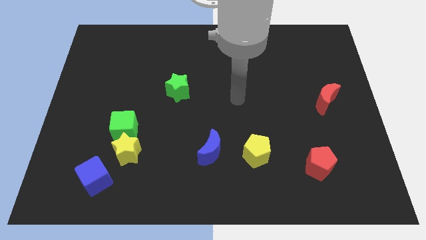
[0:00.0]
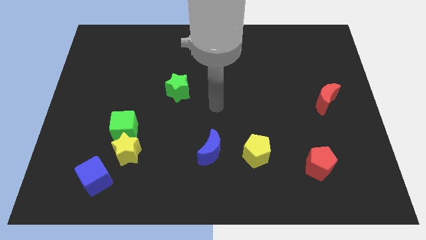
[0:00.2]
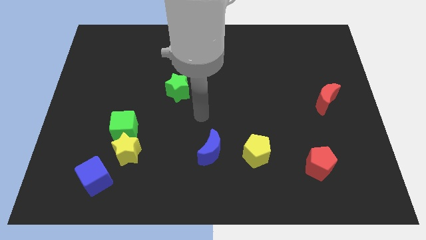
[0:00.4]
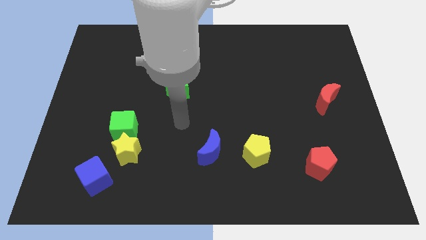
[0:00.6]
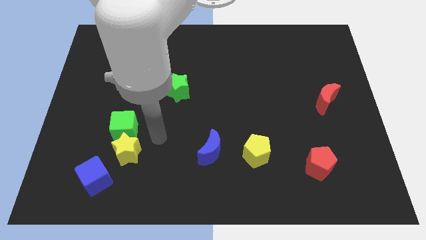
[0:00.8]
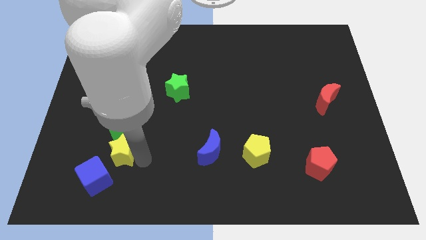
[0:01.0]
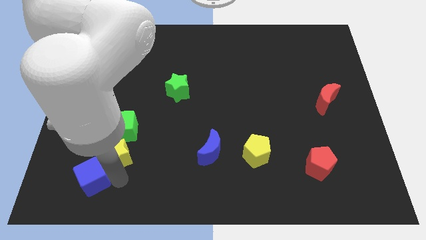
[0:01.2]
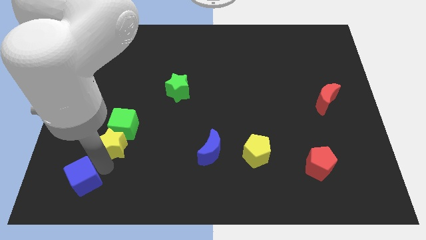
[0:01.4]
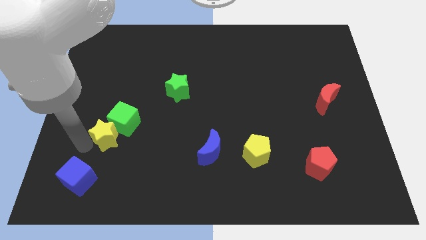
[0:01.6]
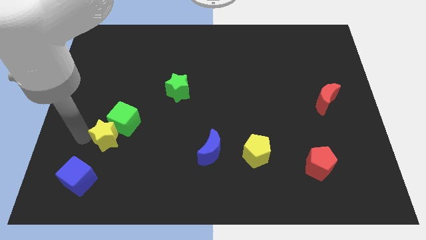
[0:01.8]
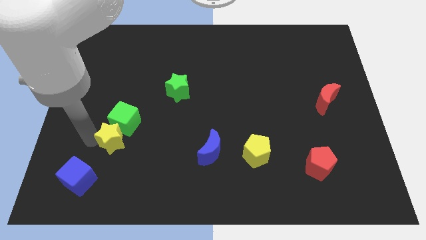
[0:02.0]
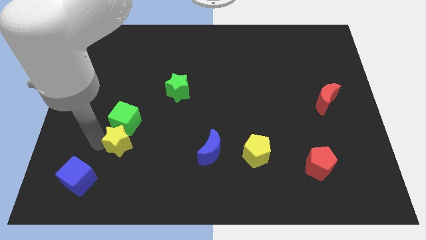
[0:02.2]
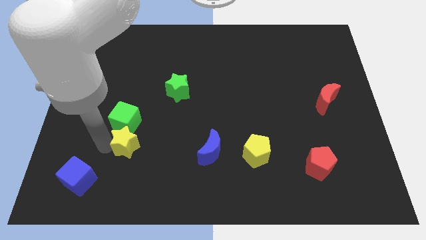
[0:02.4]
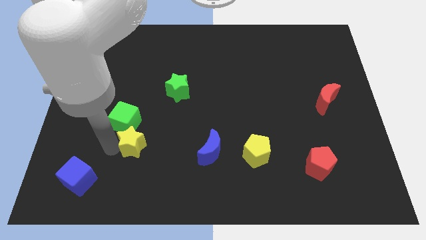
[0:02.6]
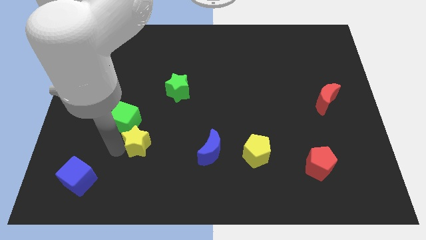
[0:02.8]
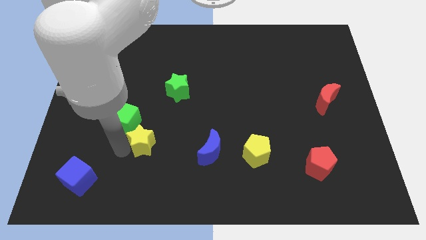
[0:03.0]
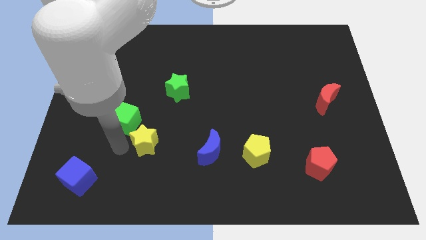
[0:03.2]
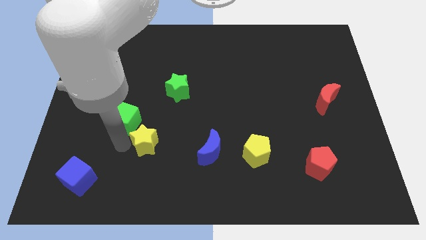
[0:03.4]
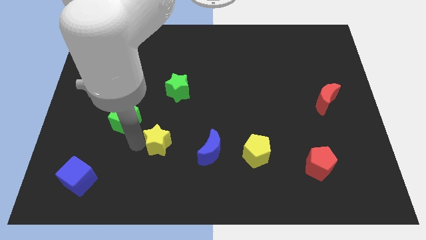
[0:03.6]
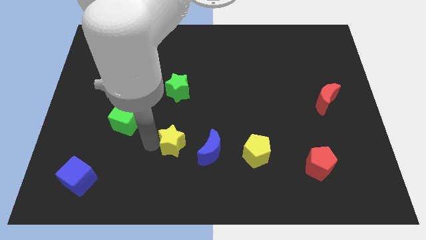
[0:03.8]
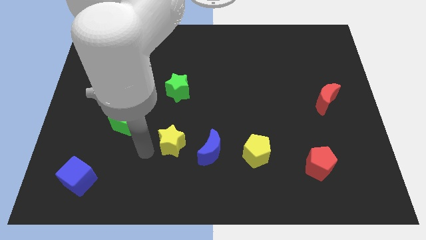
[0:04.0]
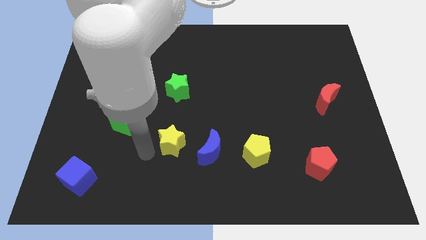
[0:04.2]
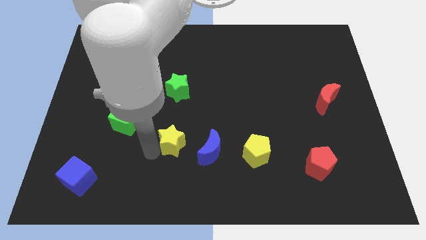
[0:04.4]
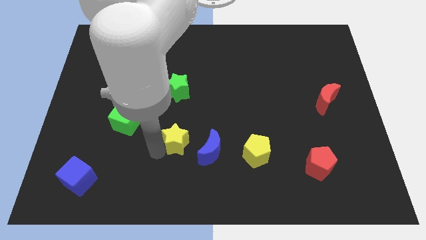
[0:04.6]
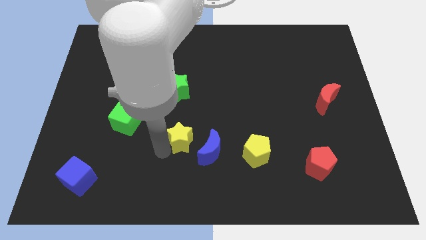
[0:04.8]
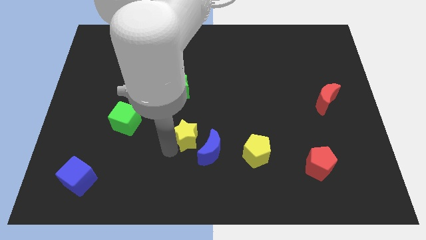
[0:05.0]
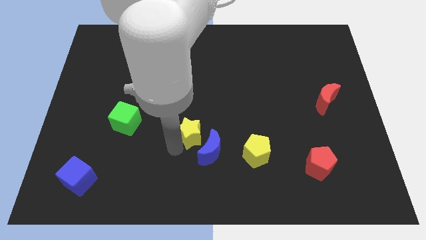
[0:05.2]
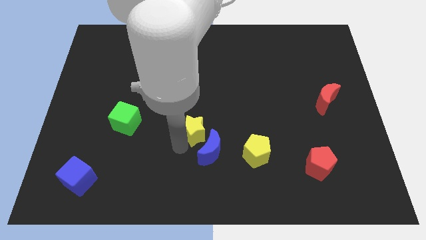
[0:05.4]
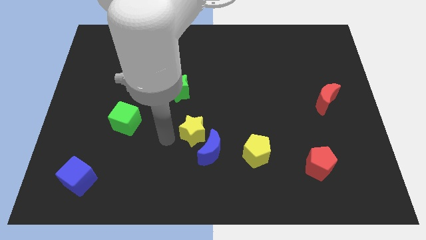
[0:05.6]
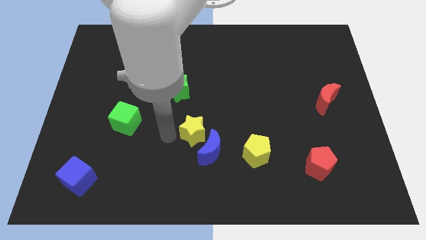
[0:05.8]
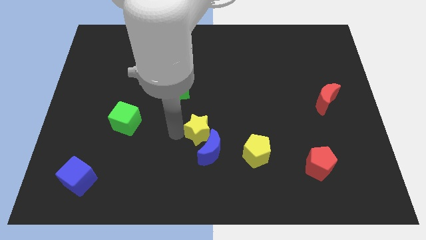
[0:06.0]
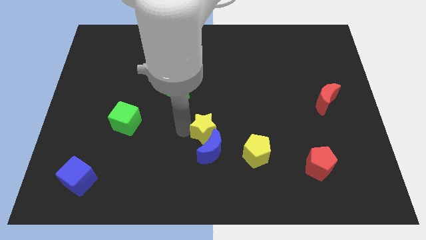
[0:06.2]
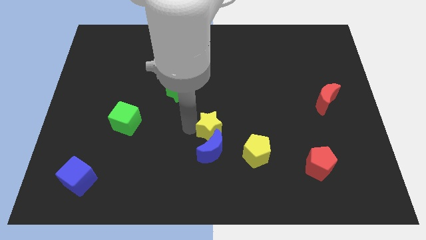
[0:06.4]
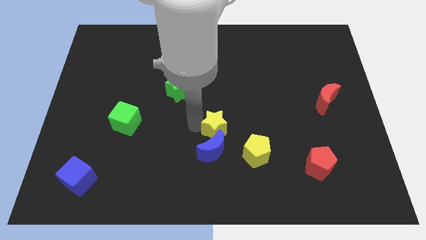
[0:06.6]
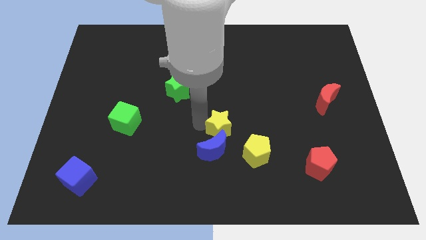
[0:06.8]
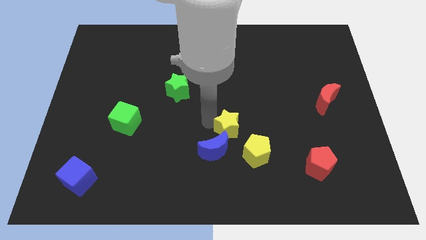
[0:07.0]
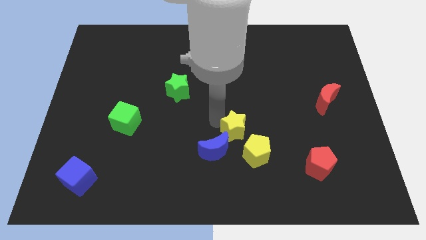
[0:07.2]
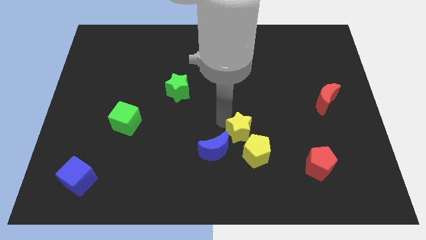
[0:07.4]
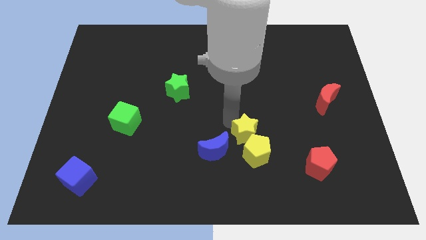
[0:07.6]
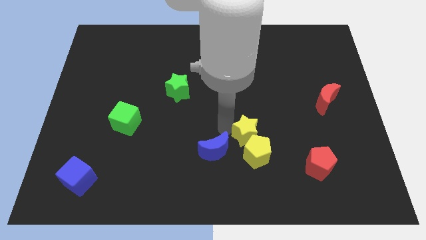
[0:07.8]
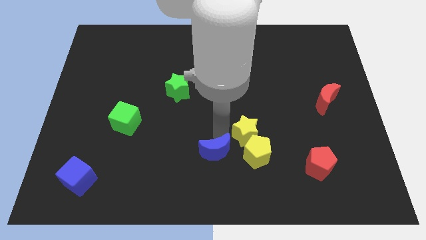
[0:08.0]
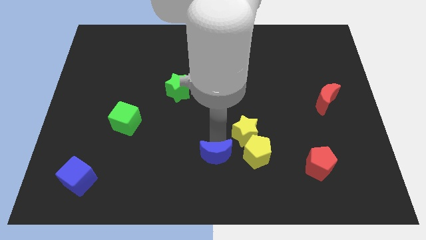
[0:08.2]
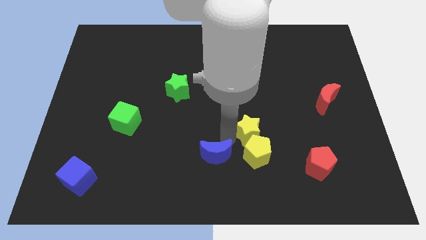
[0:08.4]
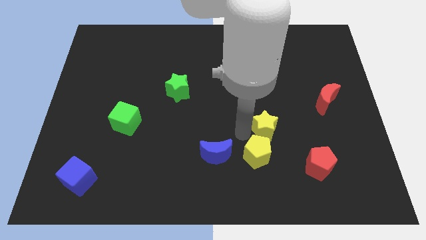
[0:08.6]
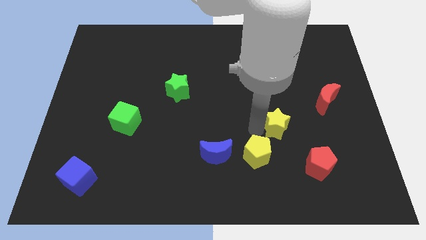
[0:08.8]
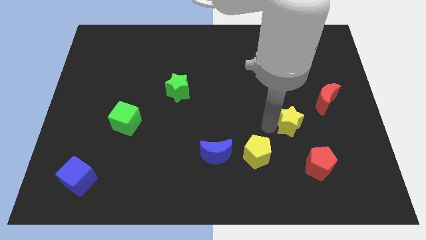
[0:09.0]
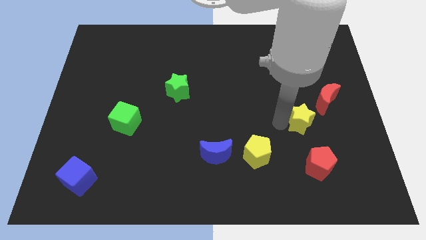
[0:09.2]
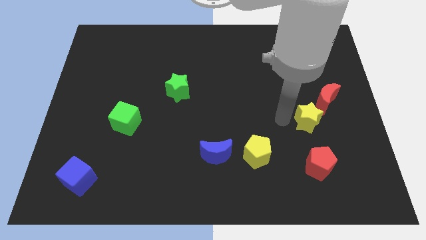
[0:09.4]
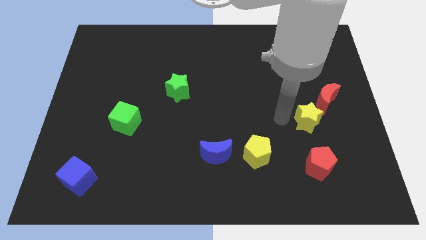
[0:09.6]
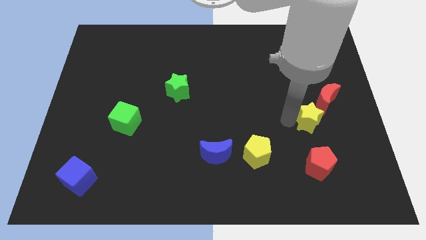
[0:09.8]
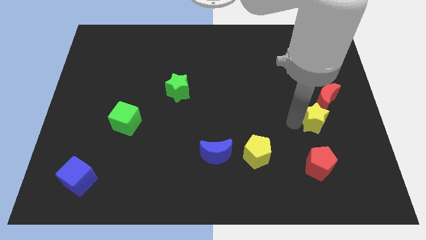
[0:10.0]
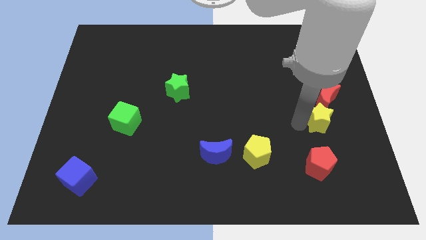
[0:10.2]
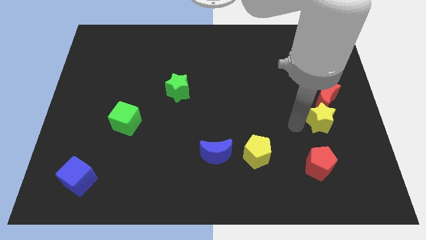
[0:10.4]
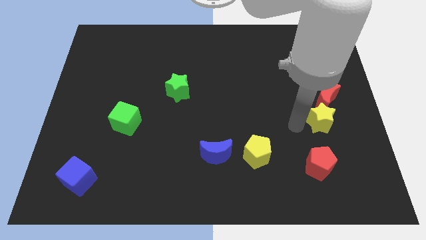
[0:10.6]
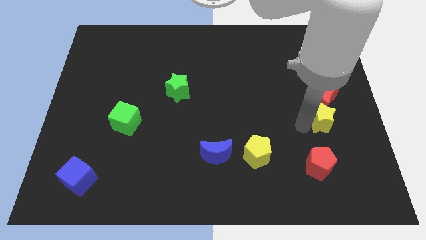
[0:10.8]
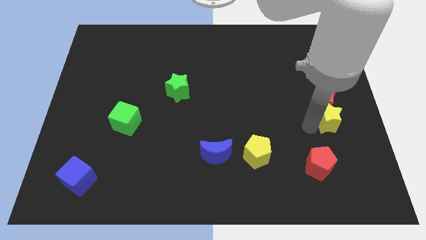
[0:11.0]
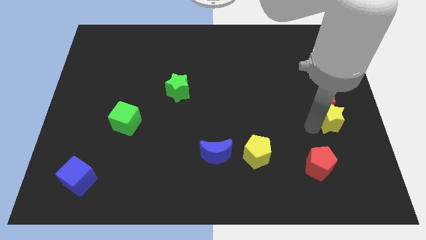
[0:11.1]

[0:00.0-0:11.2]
push the yellow star to the right side of the board

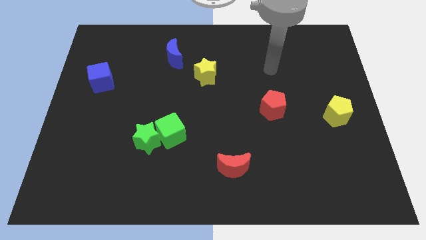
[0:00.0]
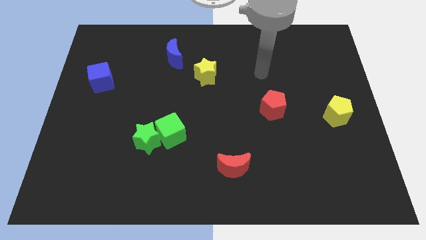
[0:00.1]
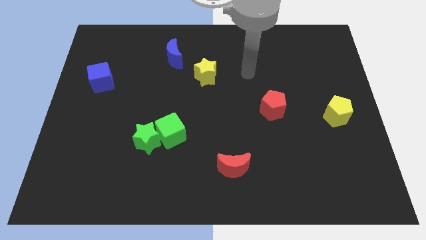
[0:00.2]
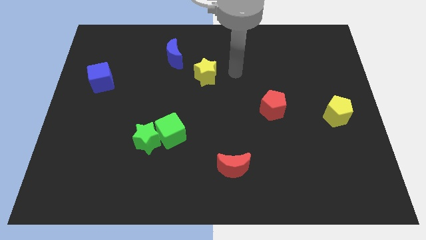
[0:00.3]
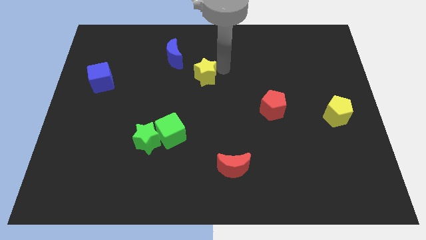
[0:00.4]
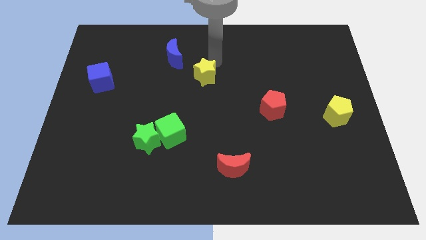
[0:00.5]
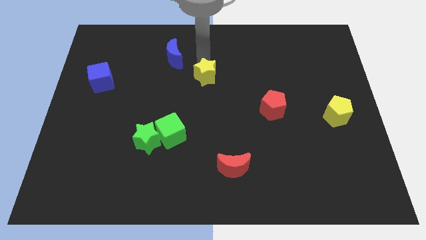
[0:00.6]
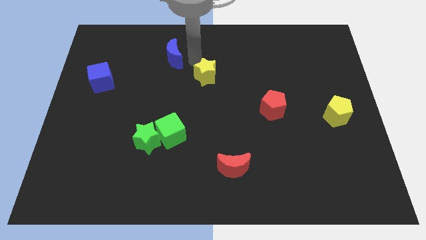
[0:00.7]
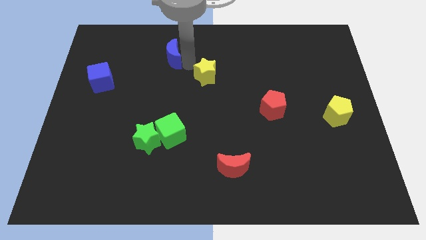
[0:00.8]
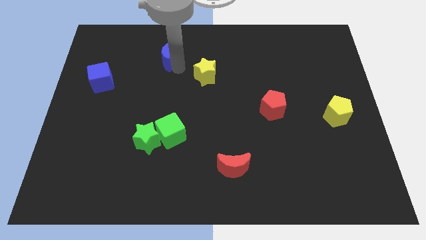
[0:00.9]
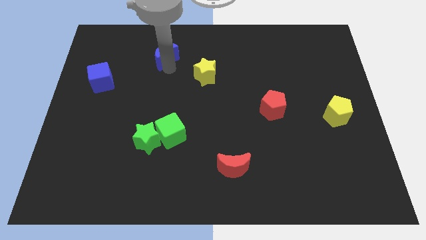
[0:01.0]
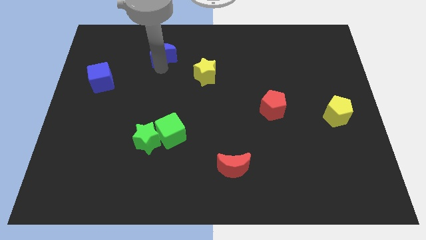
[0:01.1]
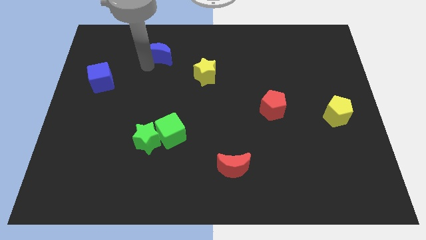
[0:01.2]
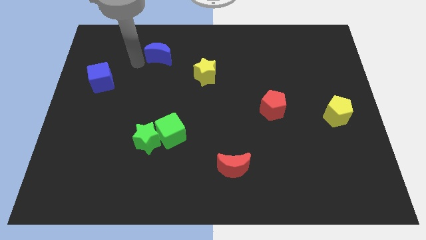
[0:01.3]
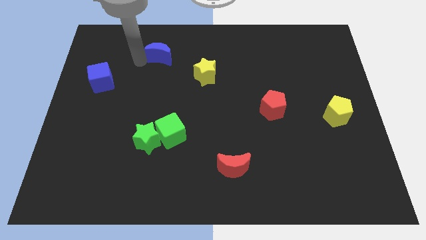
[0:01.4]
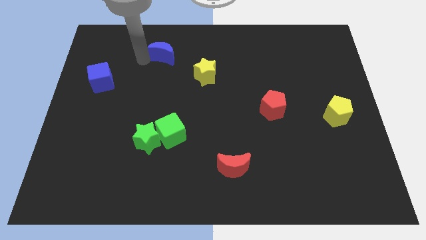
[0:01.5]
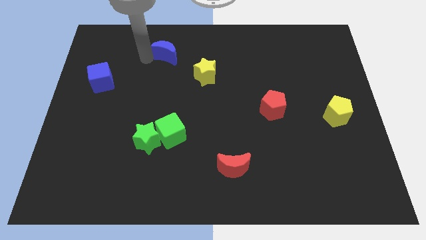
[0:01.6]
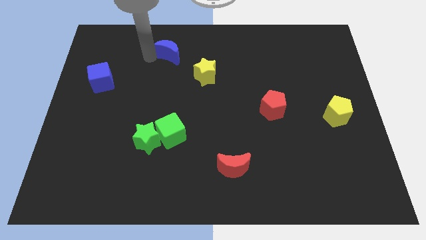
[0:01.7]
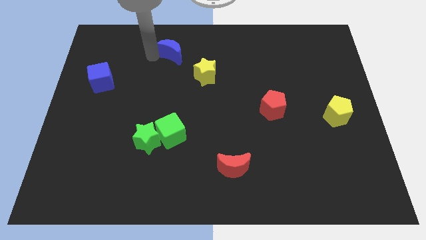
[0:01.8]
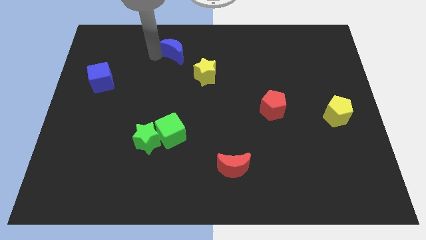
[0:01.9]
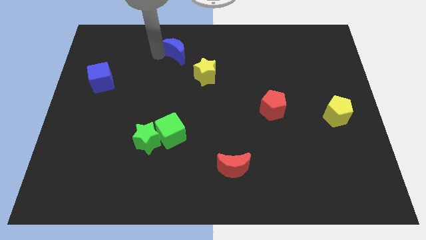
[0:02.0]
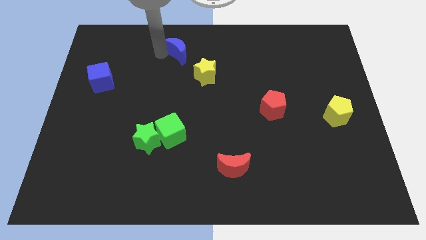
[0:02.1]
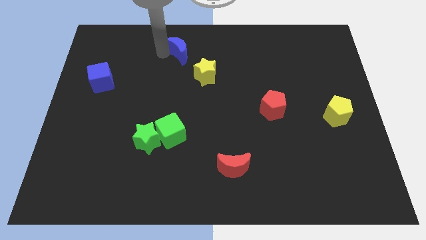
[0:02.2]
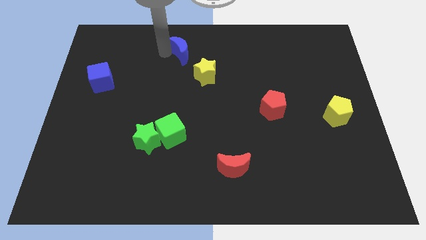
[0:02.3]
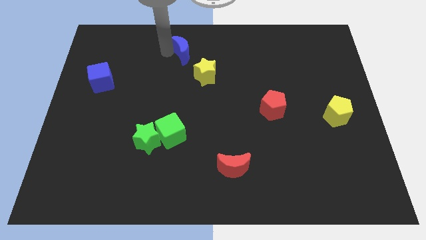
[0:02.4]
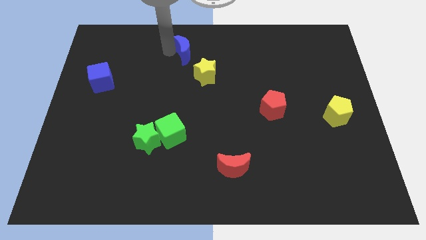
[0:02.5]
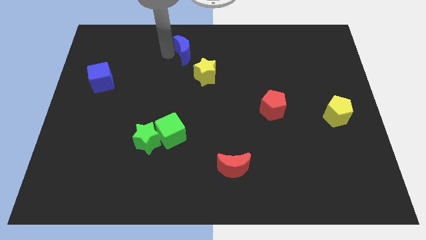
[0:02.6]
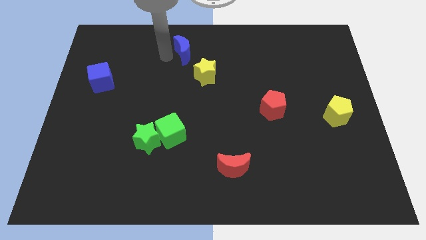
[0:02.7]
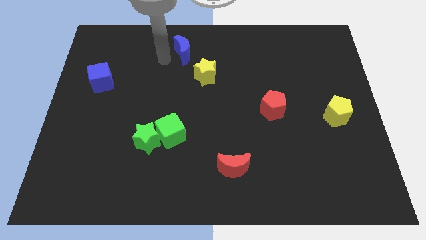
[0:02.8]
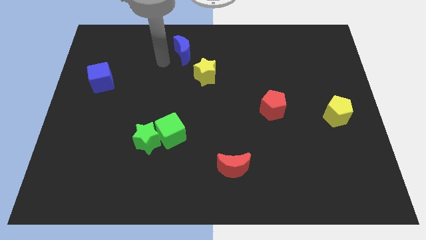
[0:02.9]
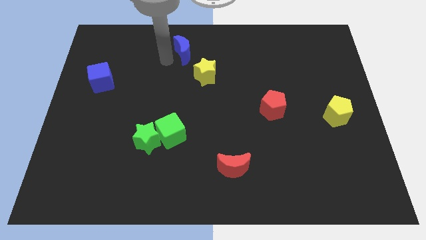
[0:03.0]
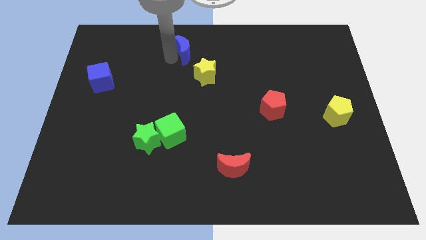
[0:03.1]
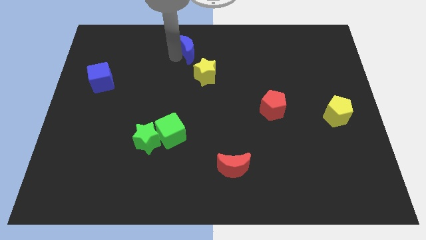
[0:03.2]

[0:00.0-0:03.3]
move the blue moon to the top side
